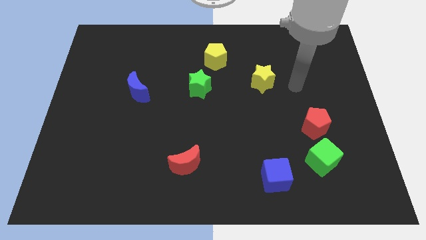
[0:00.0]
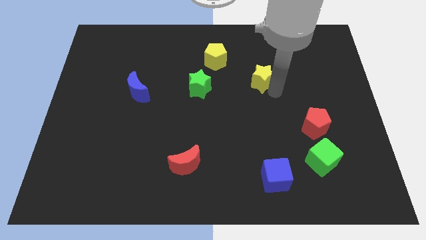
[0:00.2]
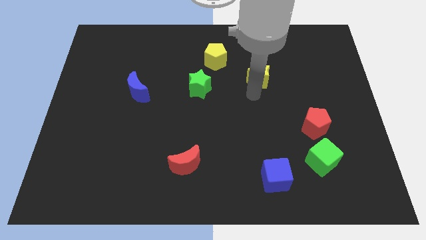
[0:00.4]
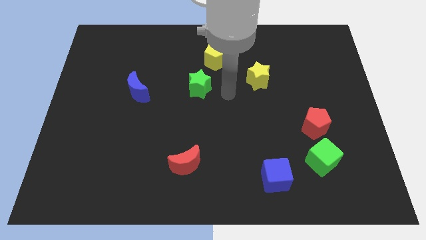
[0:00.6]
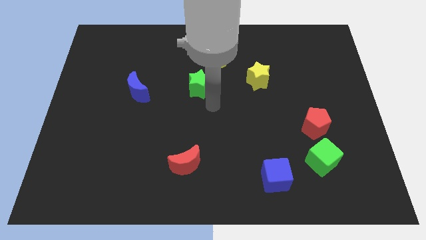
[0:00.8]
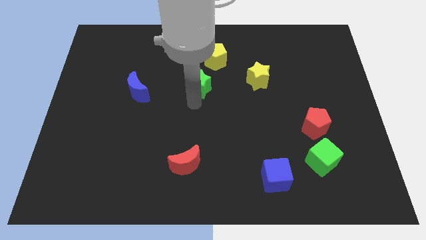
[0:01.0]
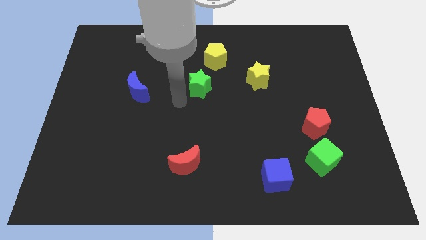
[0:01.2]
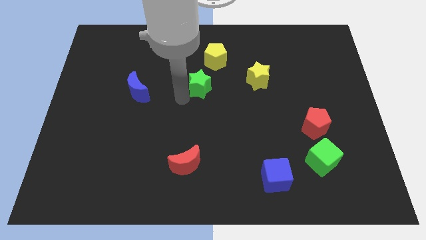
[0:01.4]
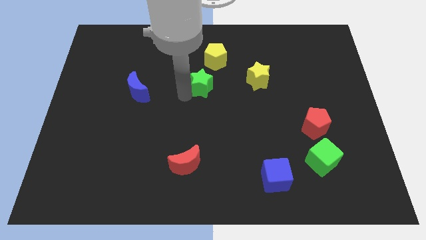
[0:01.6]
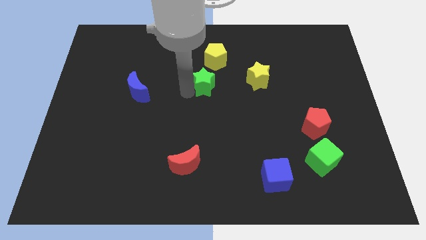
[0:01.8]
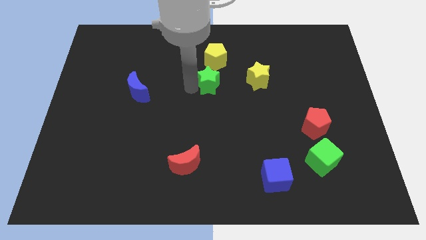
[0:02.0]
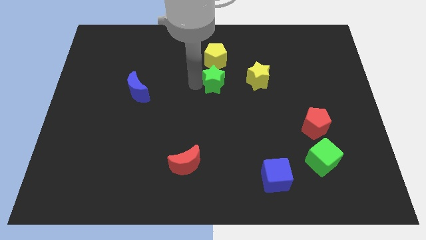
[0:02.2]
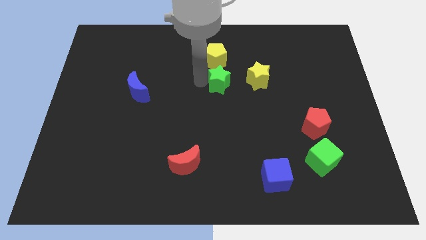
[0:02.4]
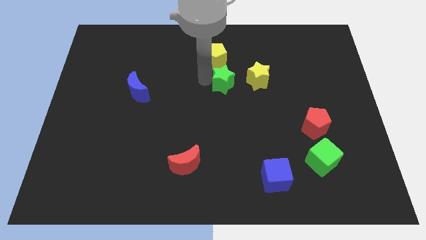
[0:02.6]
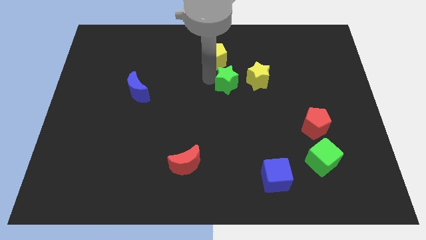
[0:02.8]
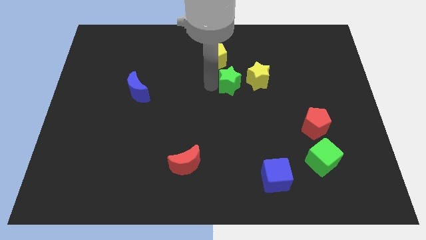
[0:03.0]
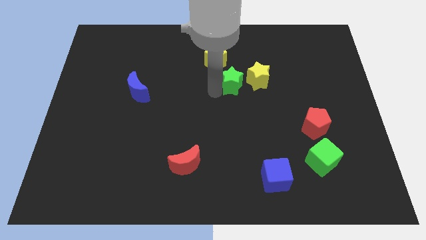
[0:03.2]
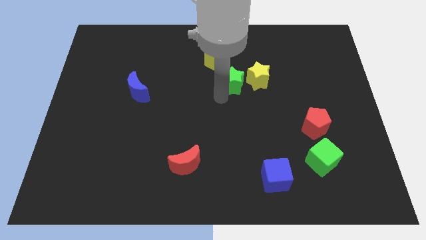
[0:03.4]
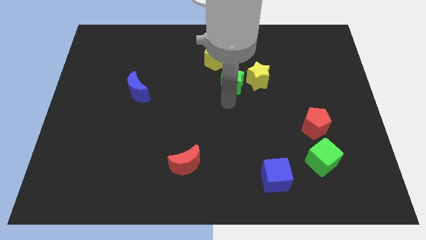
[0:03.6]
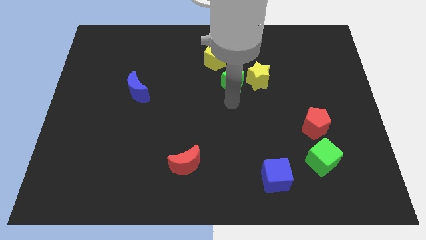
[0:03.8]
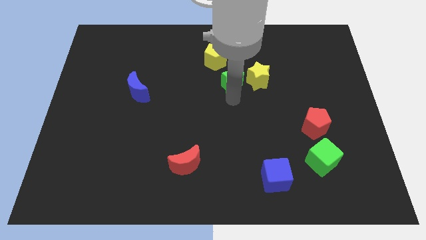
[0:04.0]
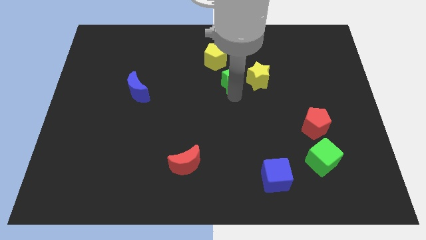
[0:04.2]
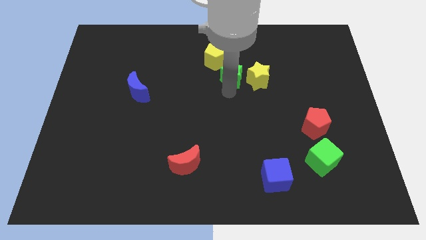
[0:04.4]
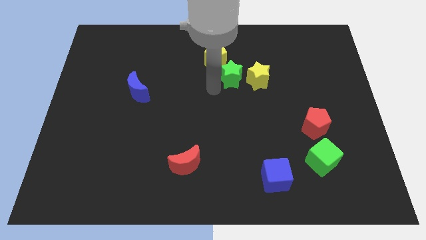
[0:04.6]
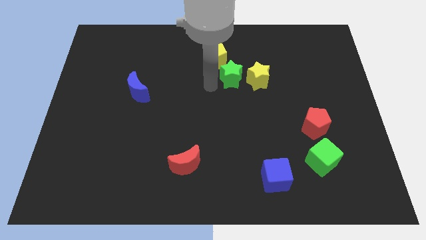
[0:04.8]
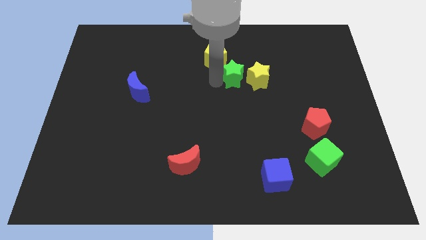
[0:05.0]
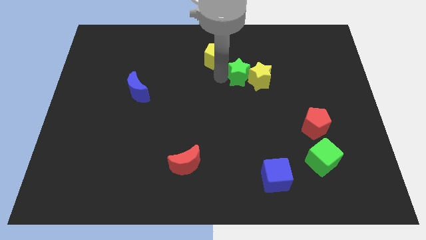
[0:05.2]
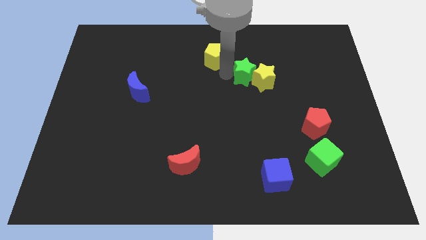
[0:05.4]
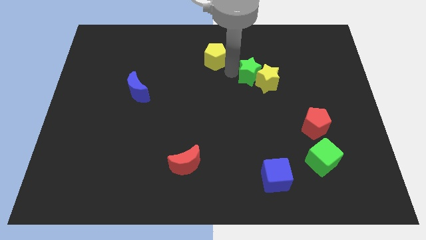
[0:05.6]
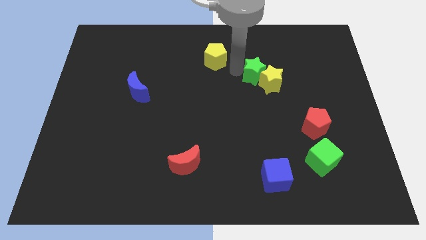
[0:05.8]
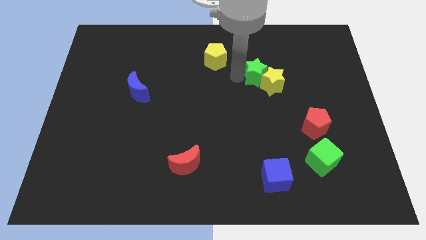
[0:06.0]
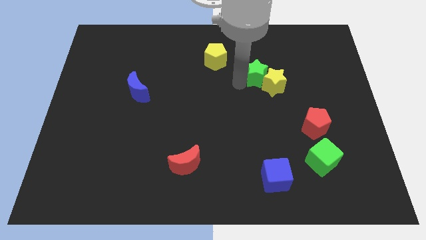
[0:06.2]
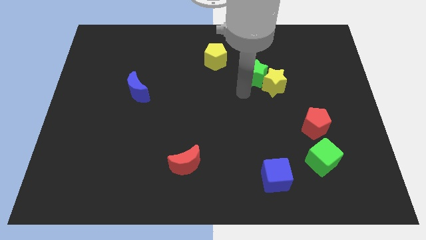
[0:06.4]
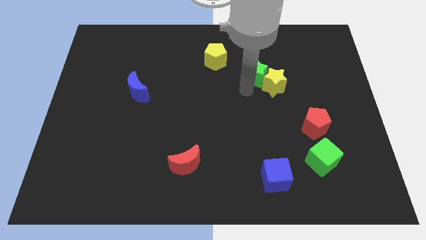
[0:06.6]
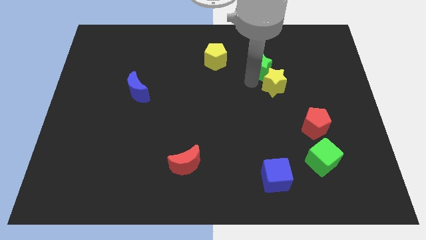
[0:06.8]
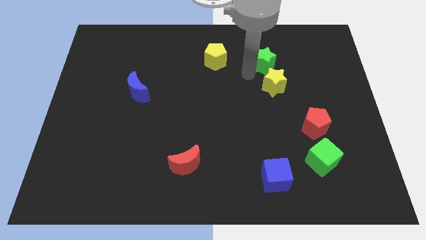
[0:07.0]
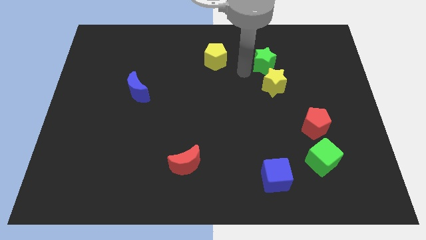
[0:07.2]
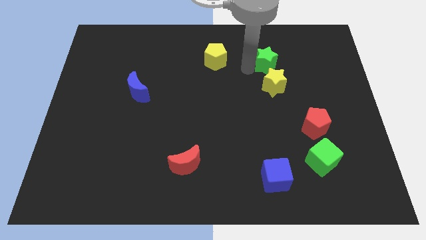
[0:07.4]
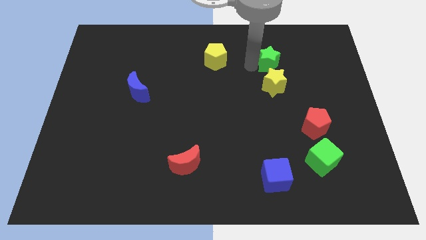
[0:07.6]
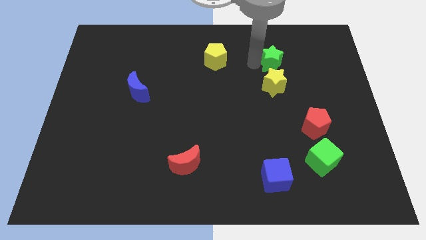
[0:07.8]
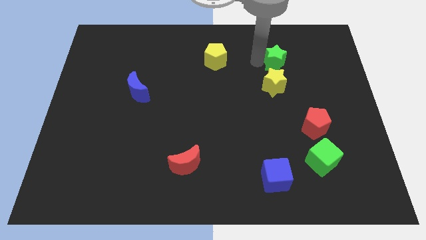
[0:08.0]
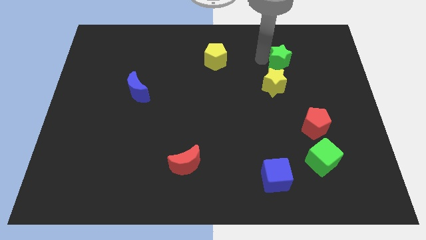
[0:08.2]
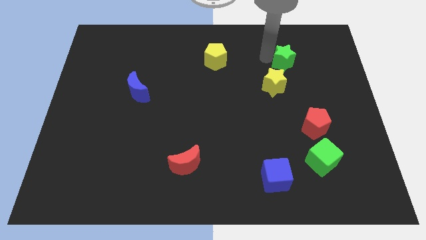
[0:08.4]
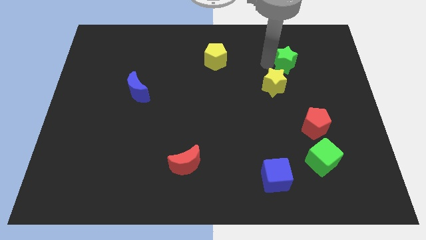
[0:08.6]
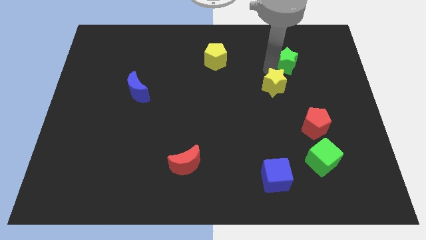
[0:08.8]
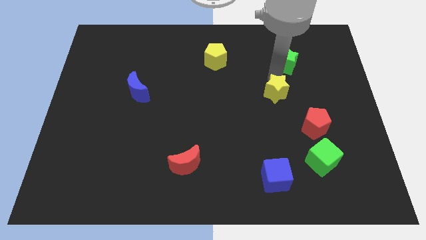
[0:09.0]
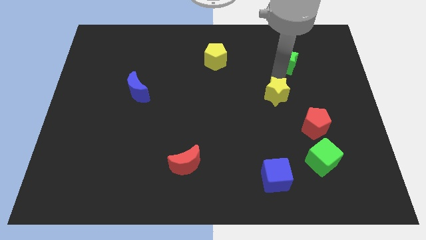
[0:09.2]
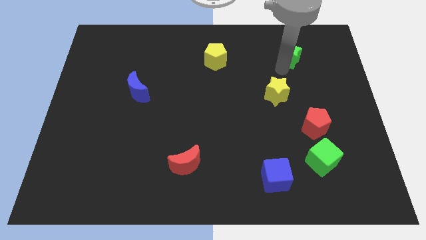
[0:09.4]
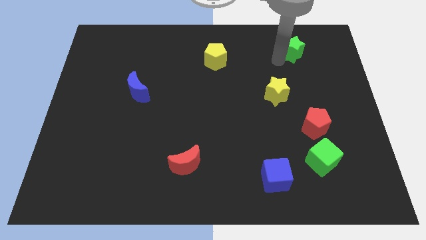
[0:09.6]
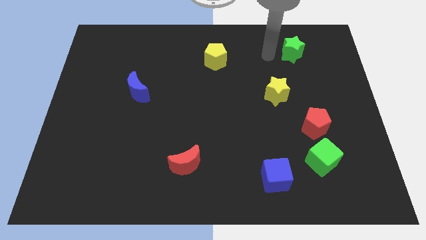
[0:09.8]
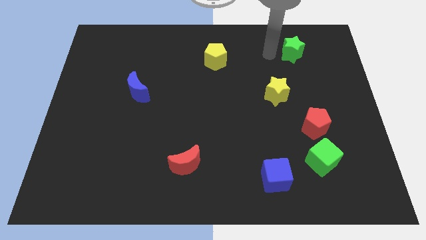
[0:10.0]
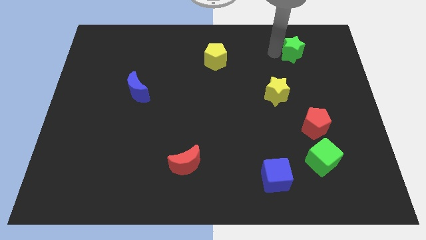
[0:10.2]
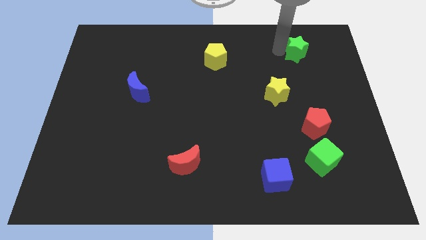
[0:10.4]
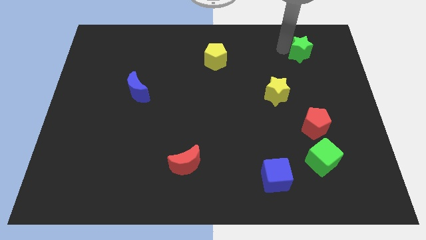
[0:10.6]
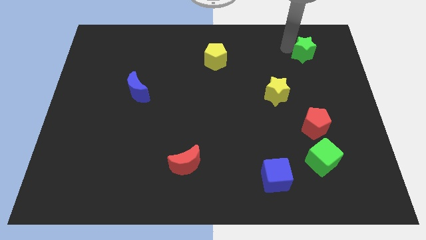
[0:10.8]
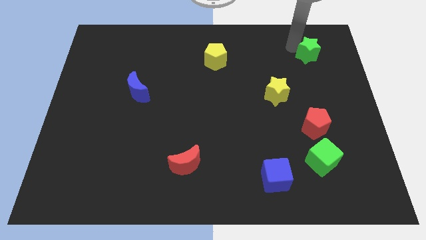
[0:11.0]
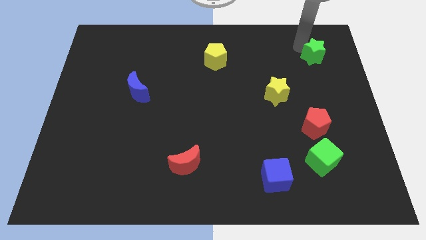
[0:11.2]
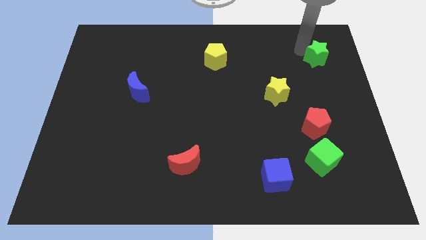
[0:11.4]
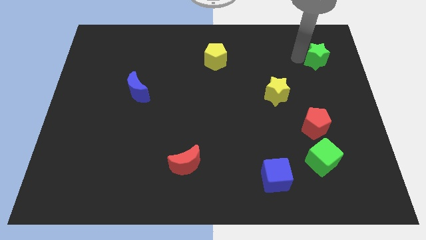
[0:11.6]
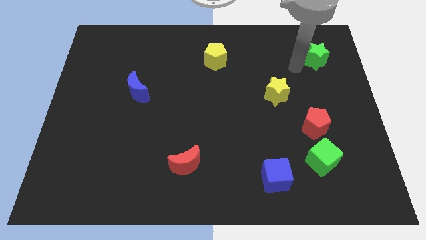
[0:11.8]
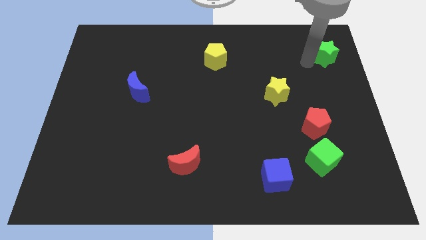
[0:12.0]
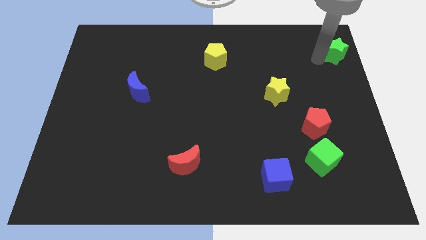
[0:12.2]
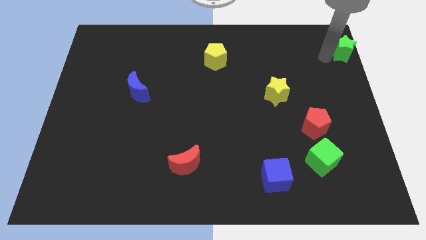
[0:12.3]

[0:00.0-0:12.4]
push the green star to the top right of the board

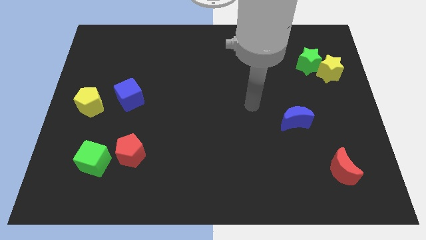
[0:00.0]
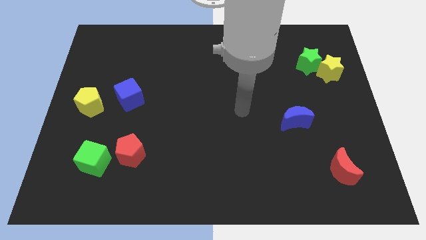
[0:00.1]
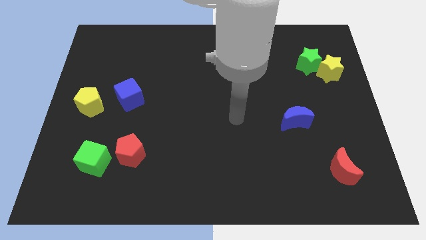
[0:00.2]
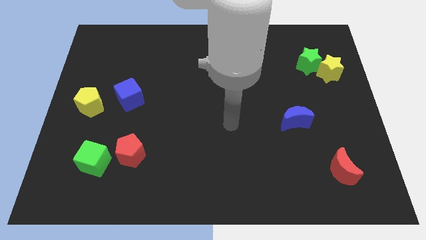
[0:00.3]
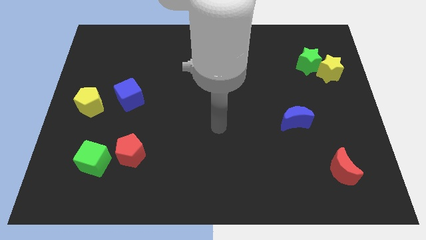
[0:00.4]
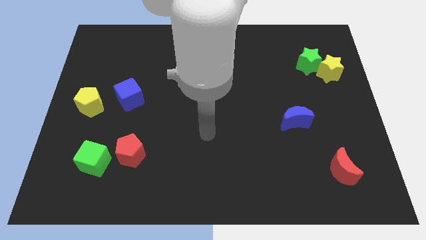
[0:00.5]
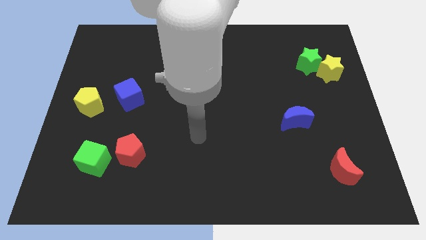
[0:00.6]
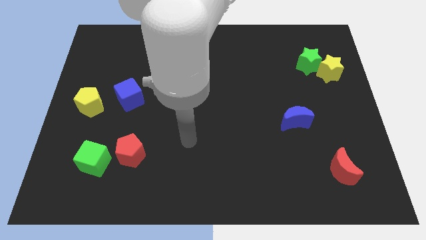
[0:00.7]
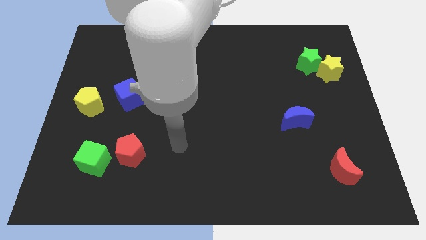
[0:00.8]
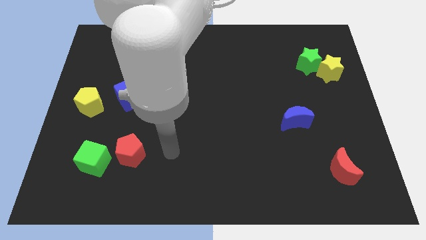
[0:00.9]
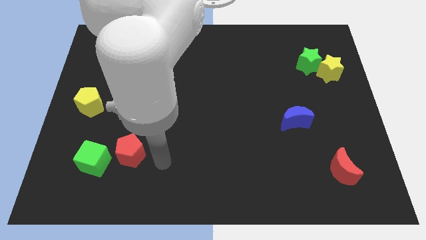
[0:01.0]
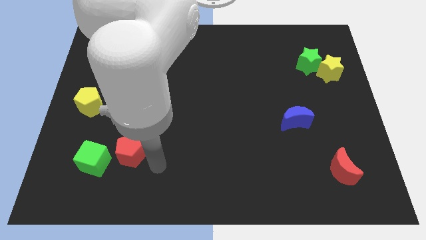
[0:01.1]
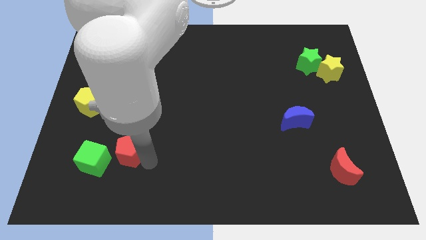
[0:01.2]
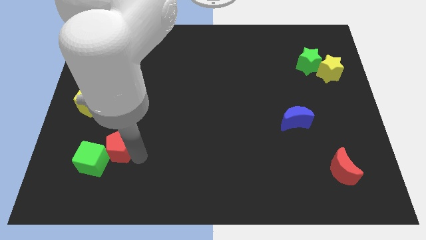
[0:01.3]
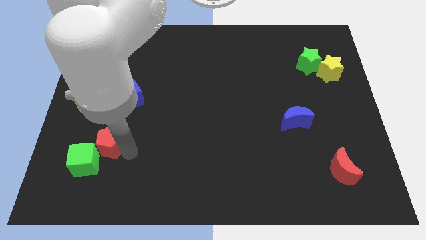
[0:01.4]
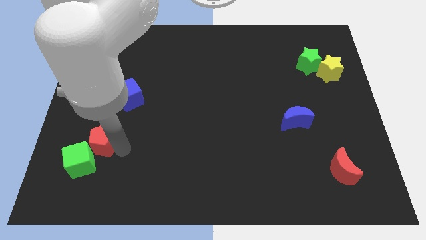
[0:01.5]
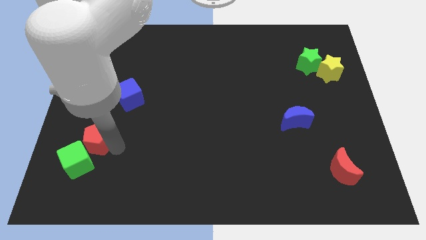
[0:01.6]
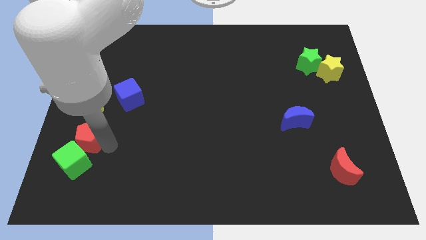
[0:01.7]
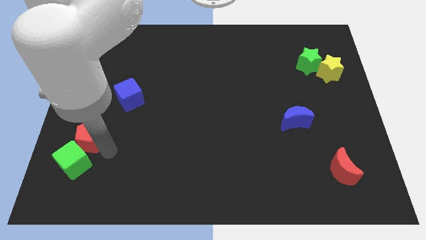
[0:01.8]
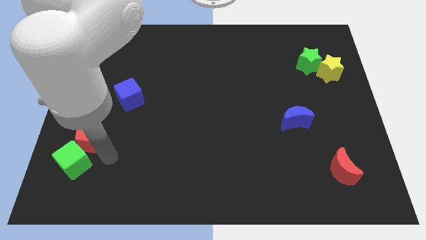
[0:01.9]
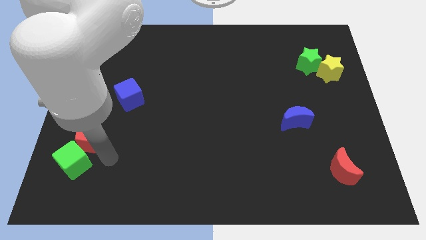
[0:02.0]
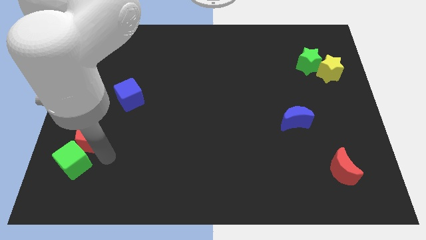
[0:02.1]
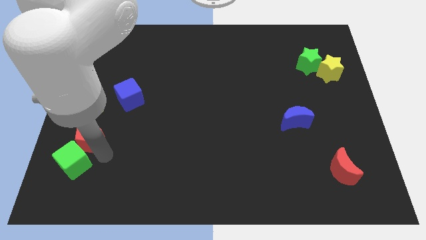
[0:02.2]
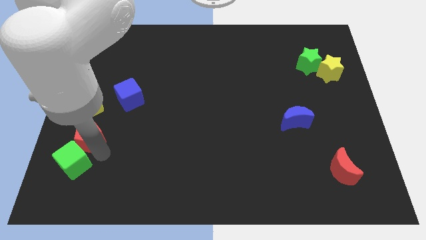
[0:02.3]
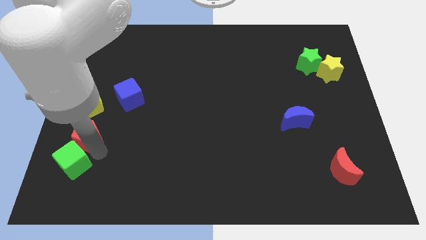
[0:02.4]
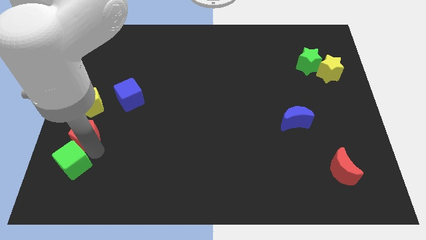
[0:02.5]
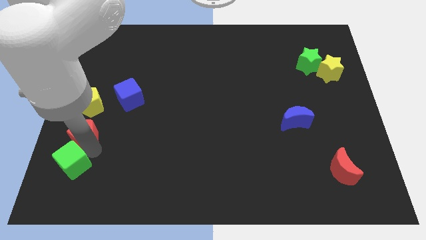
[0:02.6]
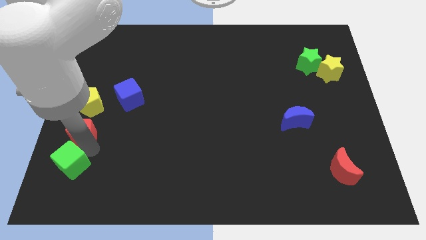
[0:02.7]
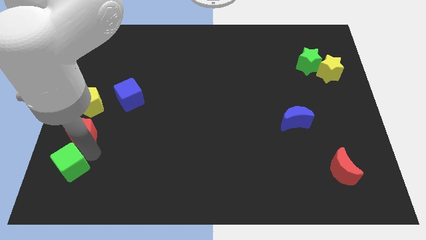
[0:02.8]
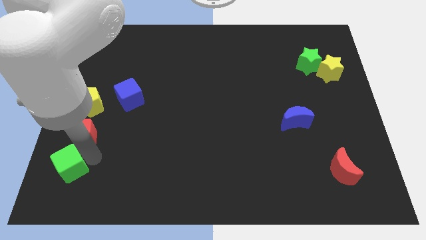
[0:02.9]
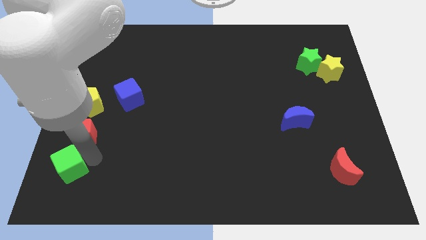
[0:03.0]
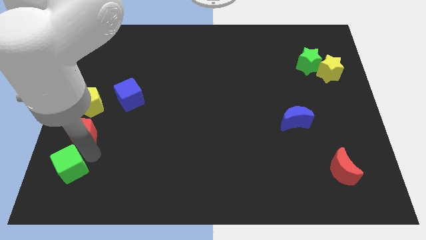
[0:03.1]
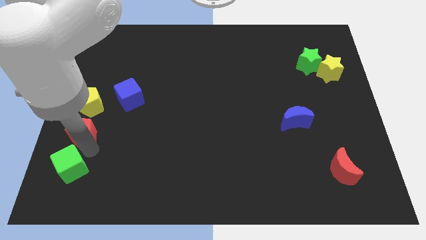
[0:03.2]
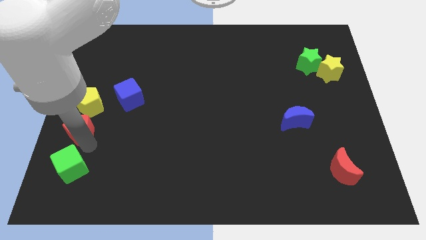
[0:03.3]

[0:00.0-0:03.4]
move the red pentagon to the left side of the board
